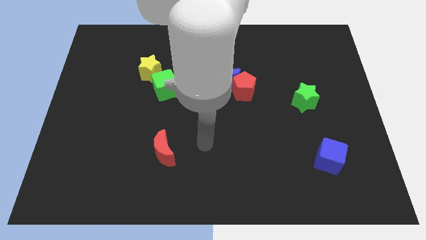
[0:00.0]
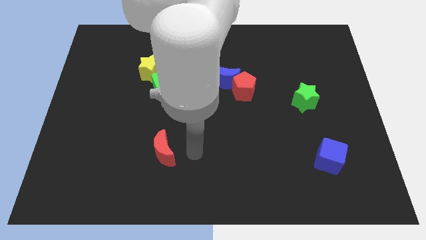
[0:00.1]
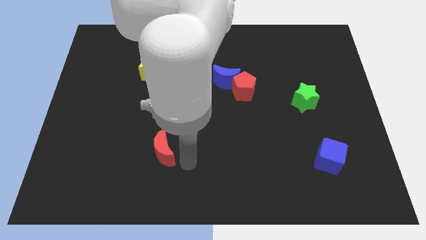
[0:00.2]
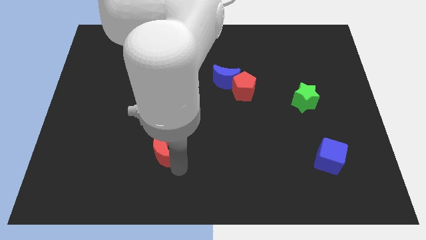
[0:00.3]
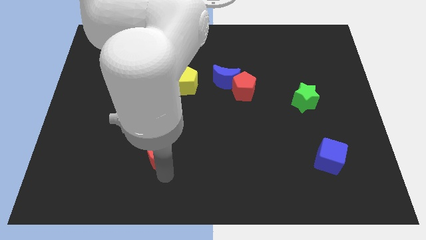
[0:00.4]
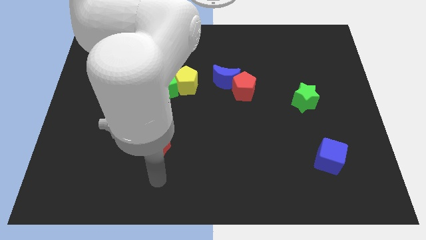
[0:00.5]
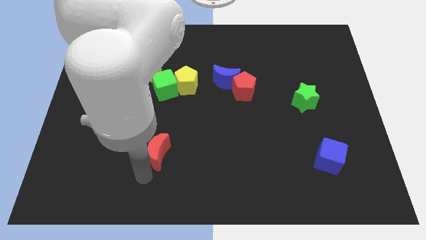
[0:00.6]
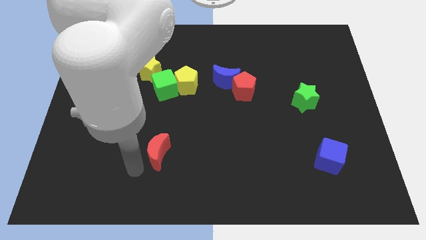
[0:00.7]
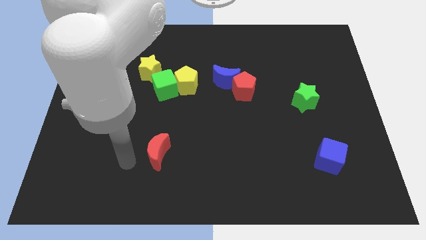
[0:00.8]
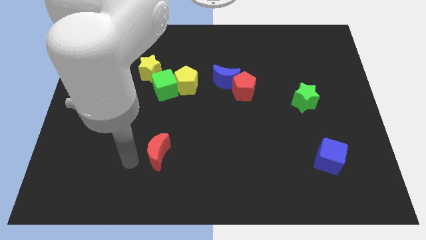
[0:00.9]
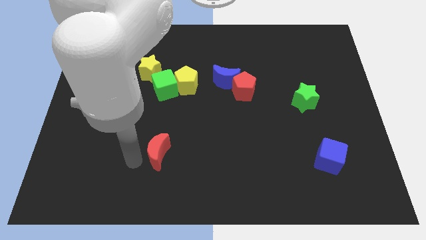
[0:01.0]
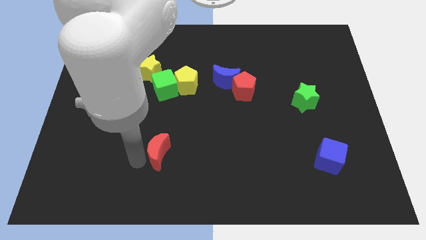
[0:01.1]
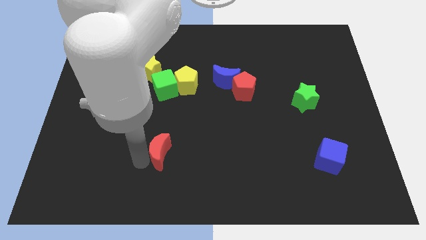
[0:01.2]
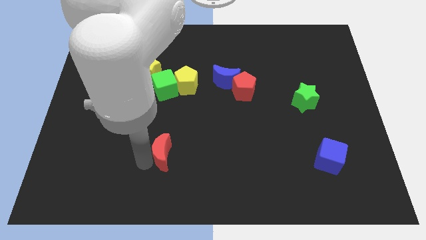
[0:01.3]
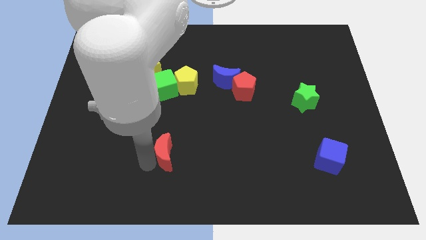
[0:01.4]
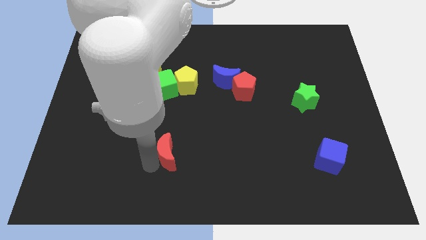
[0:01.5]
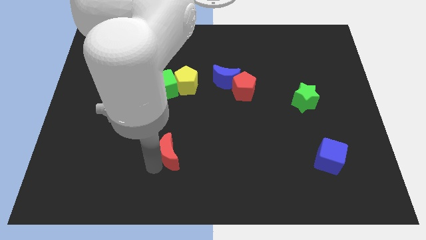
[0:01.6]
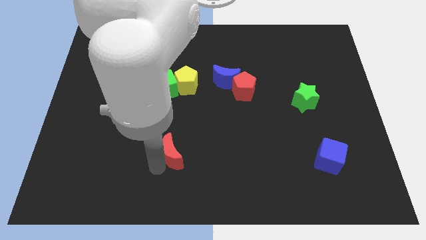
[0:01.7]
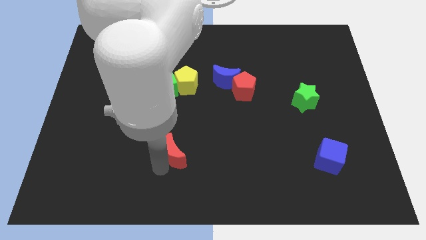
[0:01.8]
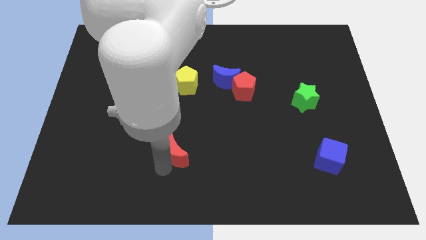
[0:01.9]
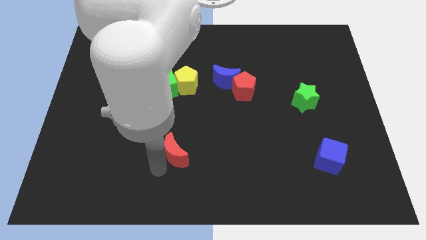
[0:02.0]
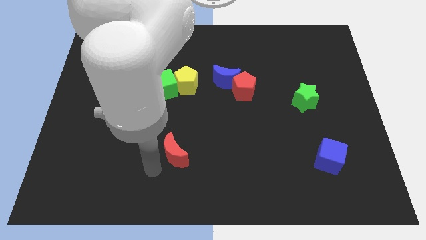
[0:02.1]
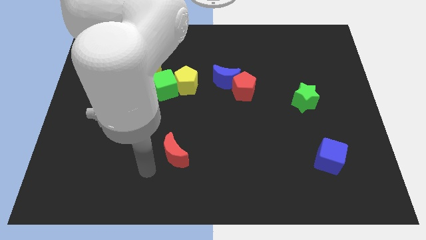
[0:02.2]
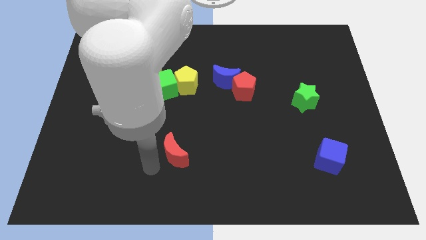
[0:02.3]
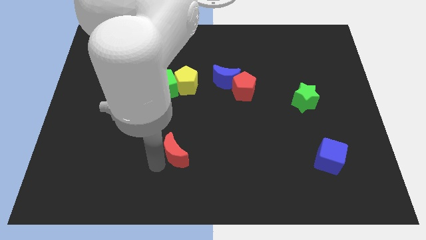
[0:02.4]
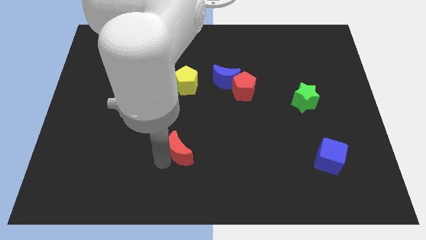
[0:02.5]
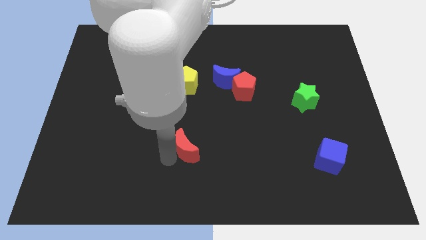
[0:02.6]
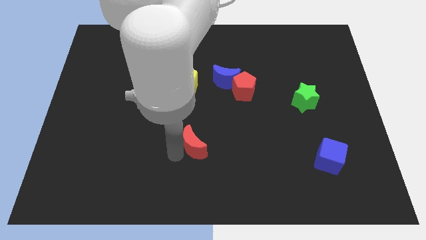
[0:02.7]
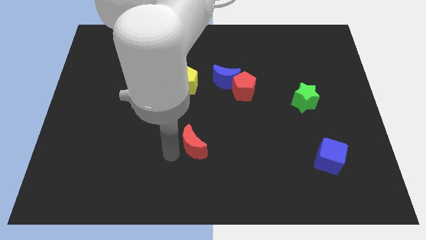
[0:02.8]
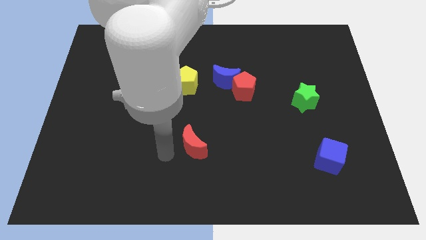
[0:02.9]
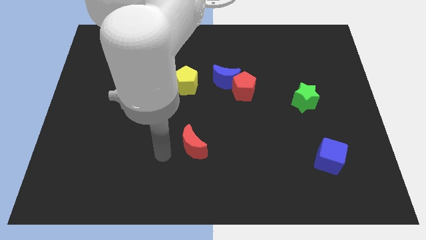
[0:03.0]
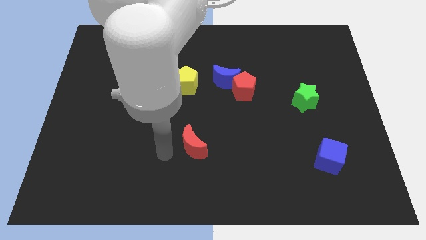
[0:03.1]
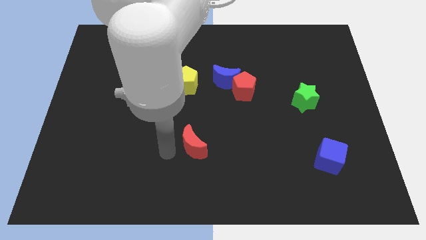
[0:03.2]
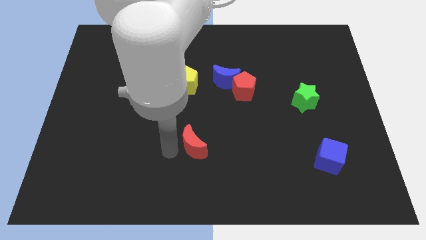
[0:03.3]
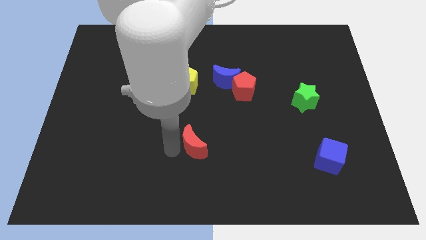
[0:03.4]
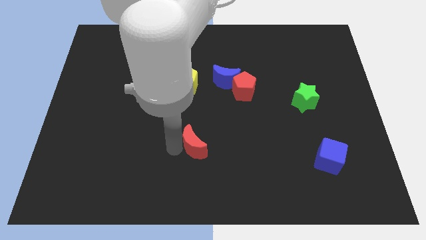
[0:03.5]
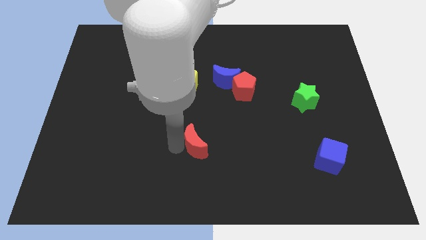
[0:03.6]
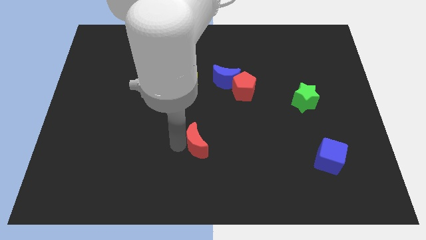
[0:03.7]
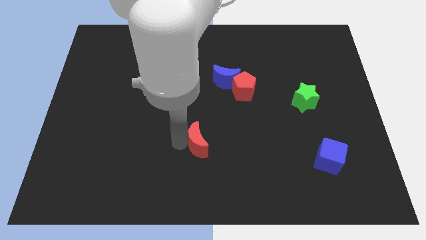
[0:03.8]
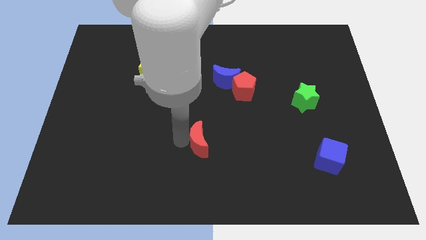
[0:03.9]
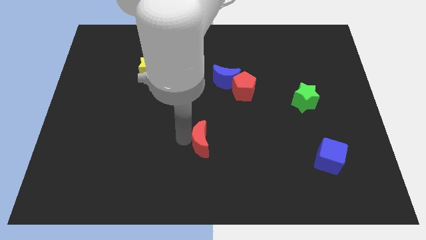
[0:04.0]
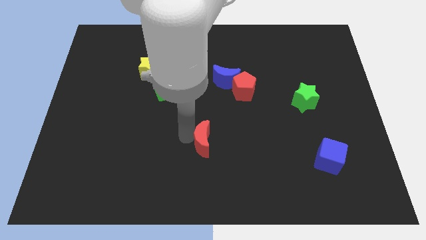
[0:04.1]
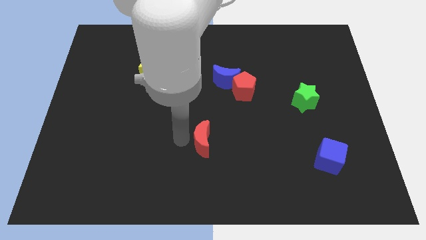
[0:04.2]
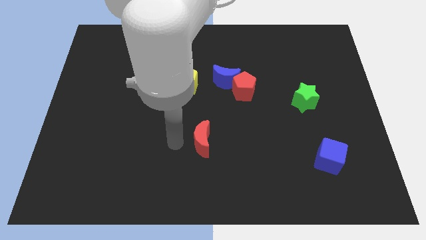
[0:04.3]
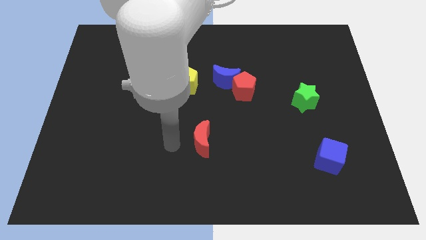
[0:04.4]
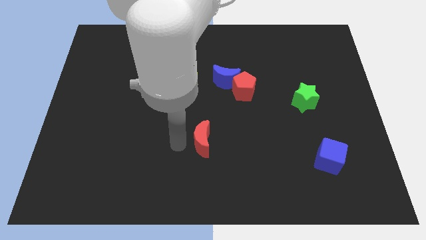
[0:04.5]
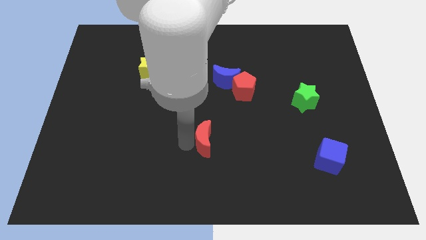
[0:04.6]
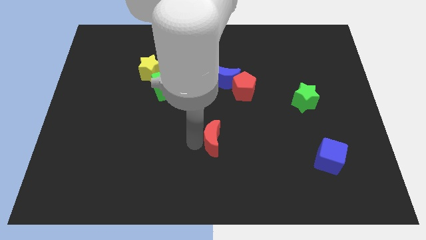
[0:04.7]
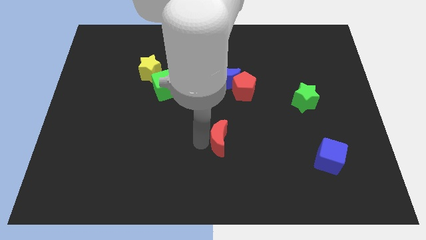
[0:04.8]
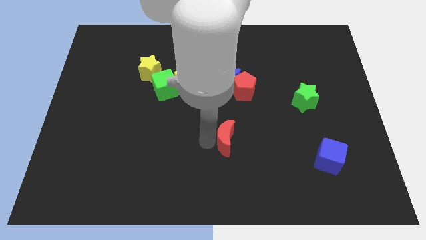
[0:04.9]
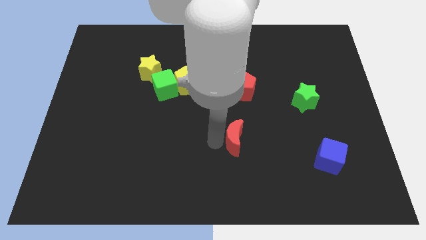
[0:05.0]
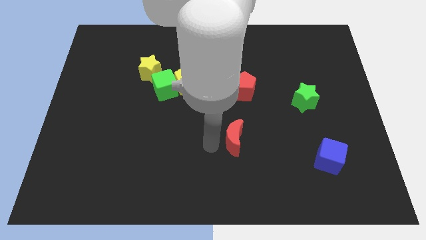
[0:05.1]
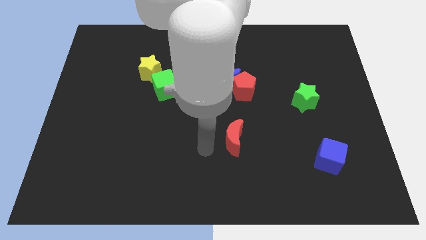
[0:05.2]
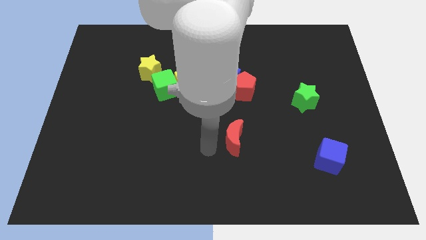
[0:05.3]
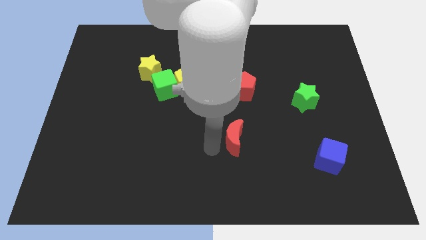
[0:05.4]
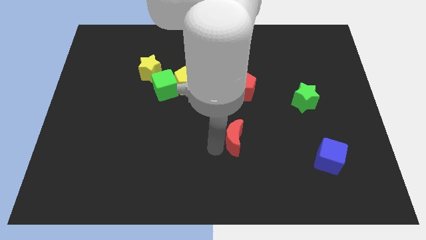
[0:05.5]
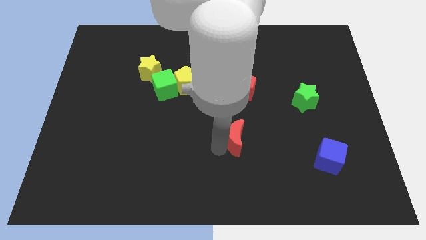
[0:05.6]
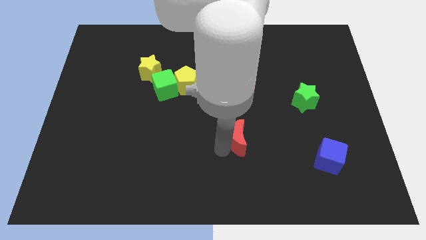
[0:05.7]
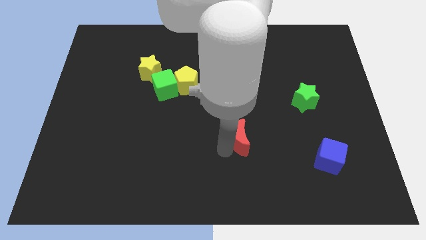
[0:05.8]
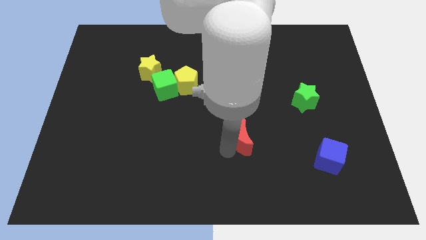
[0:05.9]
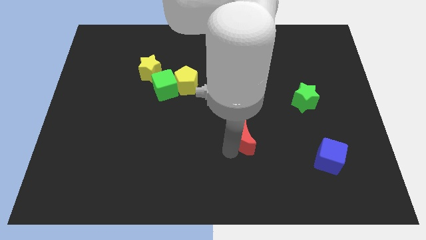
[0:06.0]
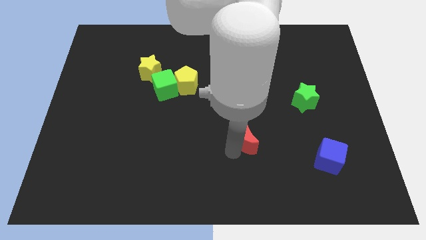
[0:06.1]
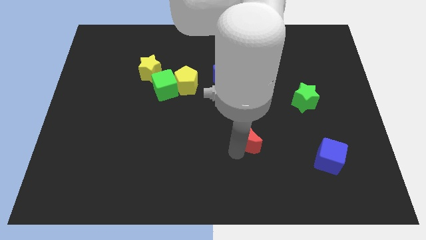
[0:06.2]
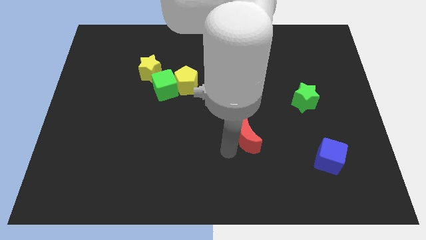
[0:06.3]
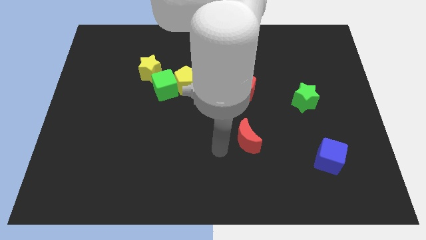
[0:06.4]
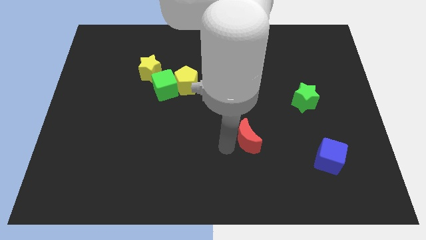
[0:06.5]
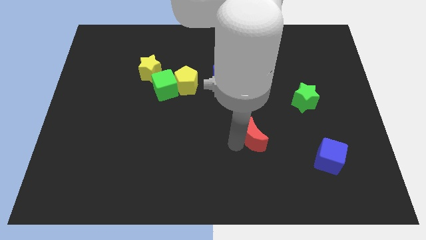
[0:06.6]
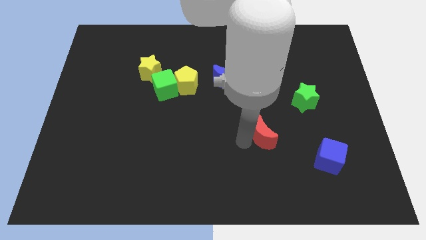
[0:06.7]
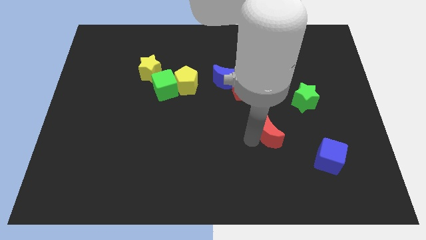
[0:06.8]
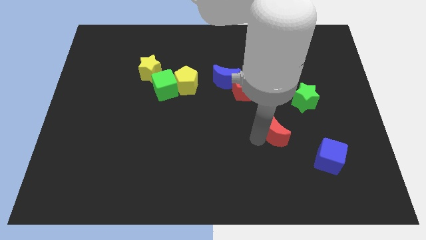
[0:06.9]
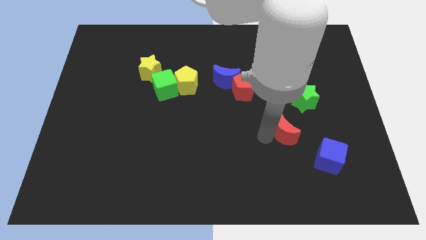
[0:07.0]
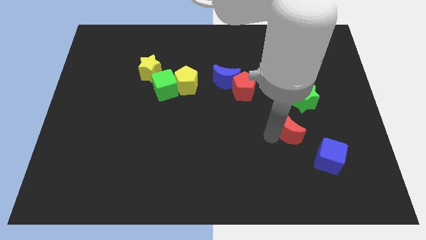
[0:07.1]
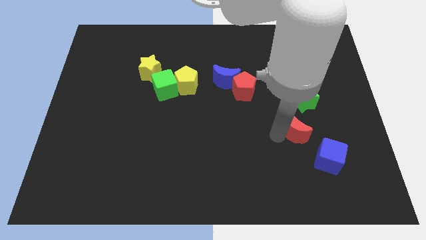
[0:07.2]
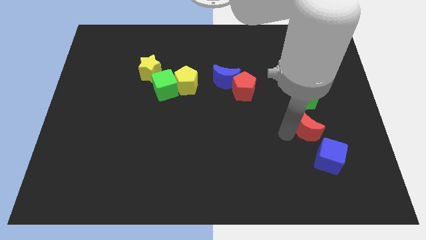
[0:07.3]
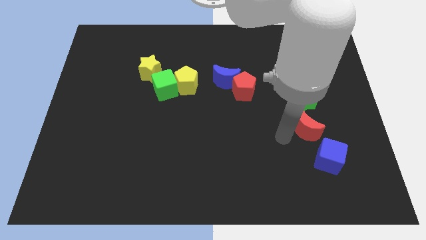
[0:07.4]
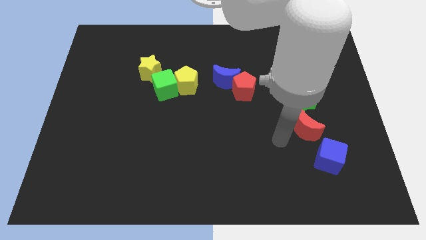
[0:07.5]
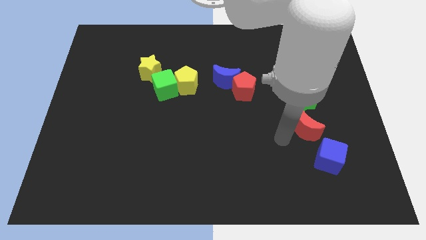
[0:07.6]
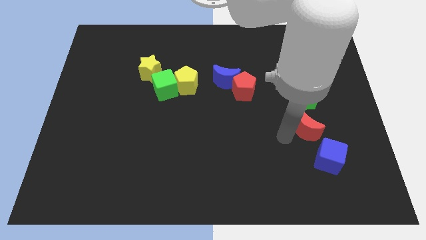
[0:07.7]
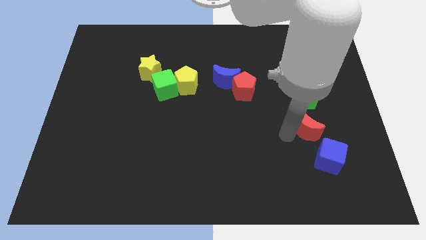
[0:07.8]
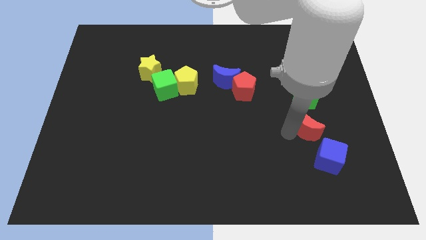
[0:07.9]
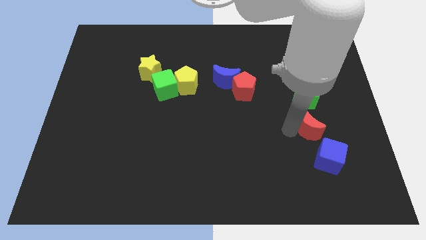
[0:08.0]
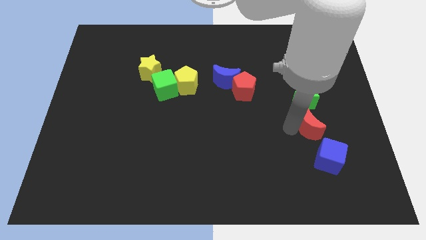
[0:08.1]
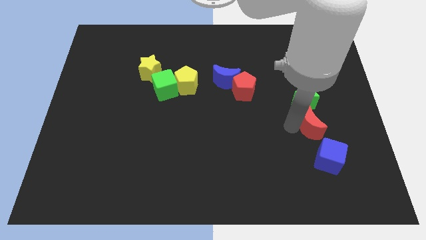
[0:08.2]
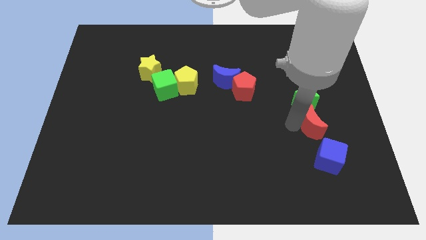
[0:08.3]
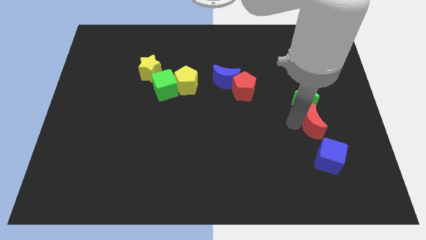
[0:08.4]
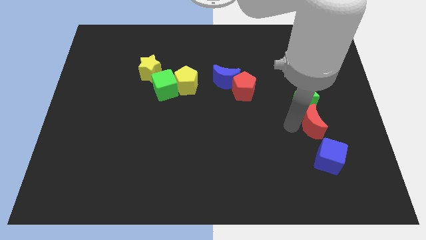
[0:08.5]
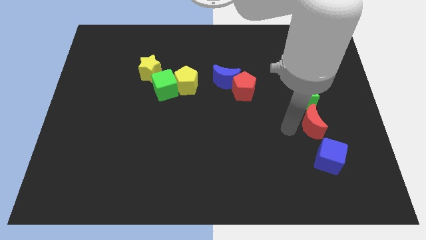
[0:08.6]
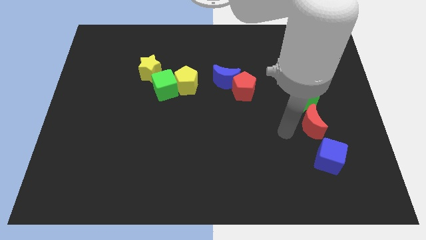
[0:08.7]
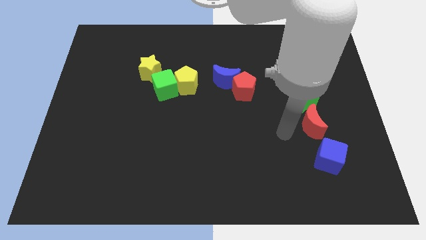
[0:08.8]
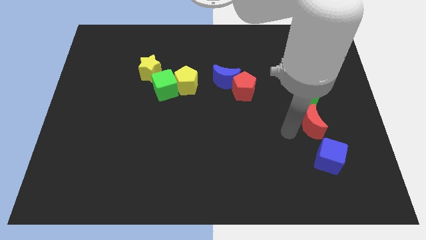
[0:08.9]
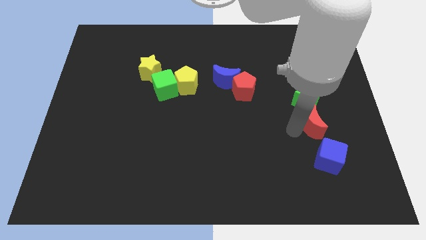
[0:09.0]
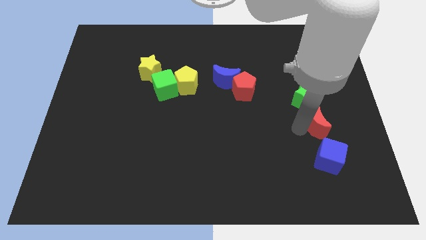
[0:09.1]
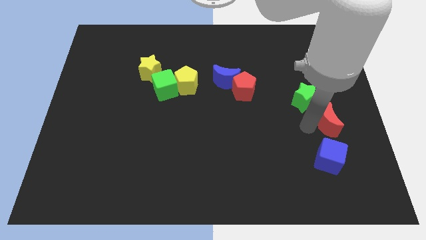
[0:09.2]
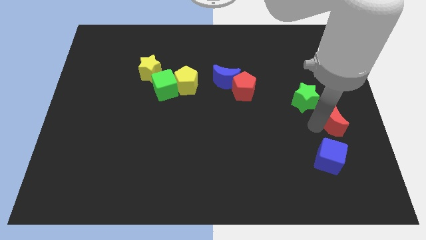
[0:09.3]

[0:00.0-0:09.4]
move the red moon to the right side
